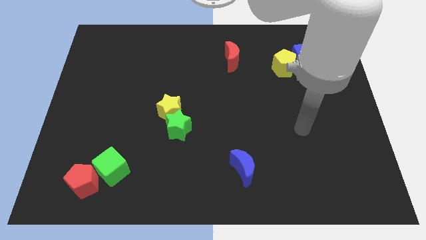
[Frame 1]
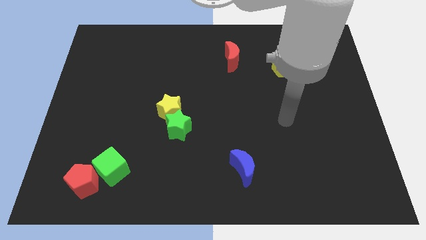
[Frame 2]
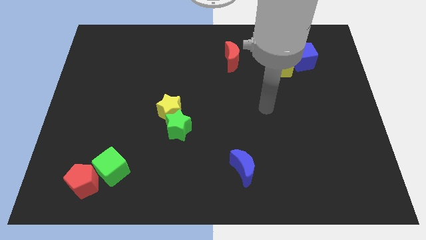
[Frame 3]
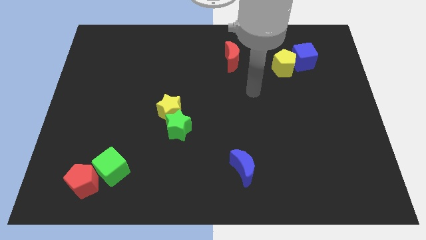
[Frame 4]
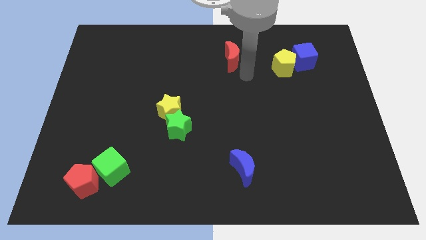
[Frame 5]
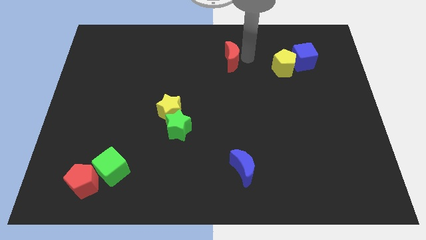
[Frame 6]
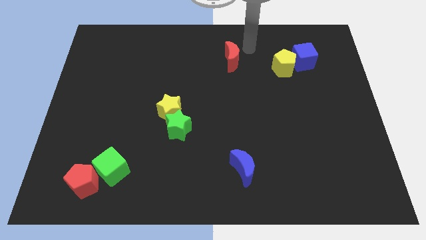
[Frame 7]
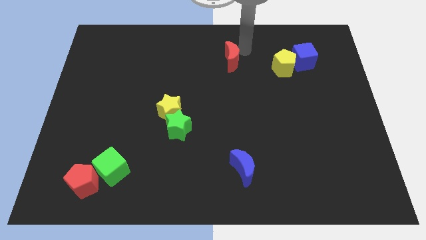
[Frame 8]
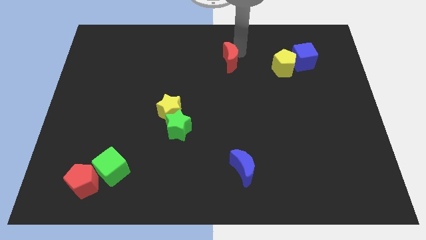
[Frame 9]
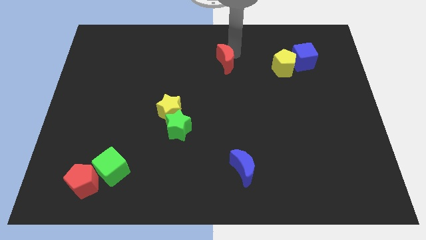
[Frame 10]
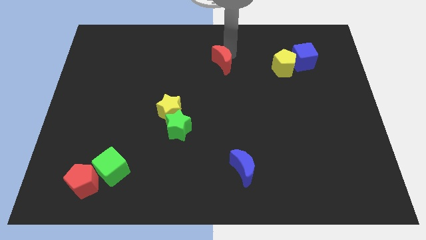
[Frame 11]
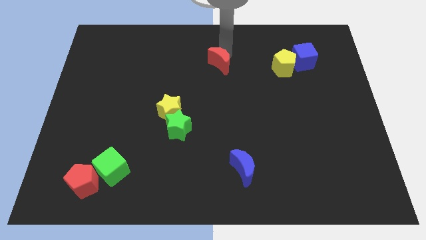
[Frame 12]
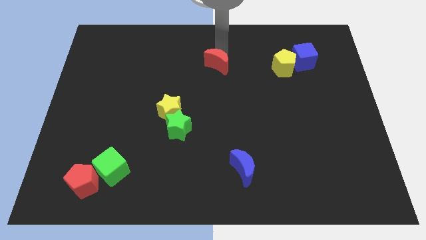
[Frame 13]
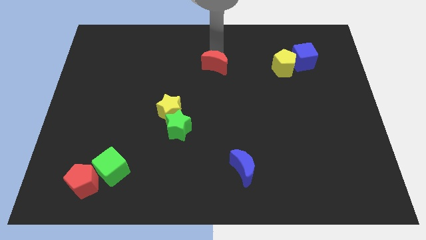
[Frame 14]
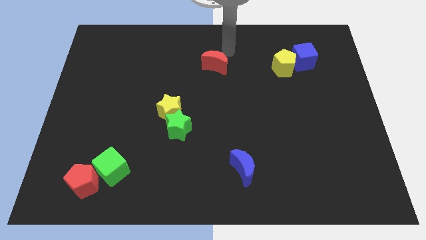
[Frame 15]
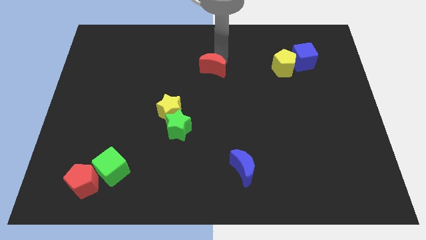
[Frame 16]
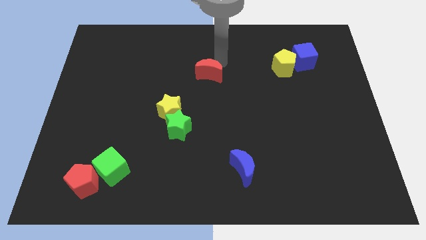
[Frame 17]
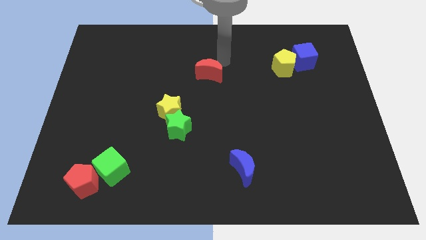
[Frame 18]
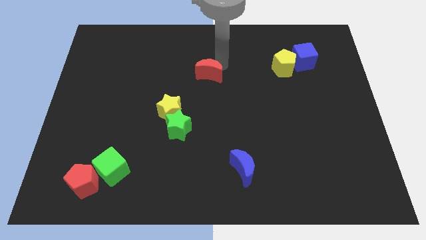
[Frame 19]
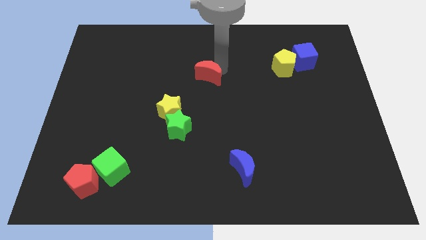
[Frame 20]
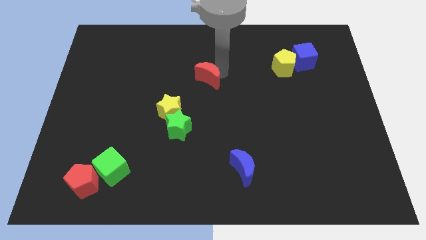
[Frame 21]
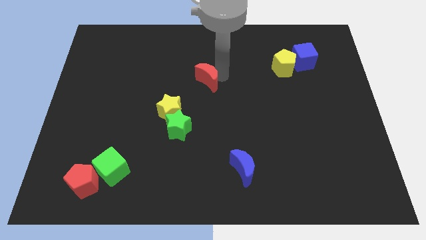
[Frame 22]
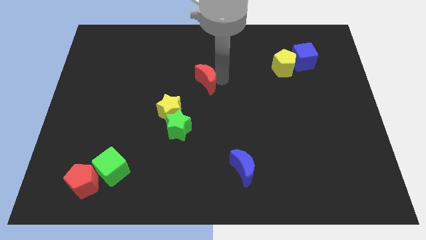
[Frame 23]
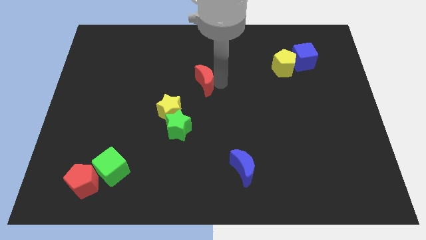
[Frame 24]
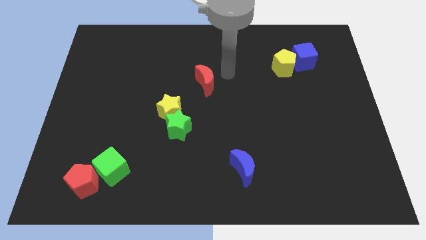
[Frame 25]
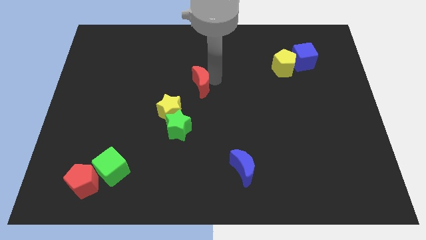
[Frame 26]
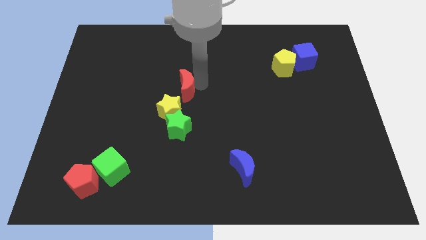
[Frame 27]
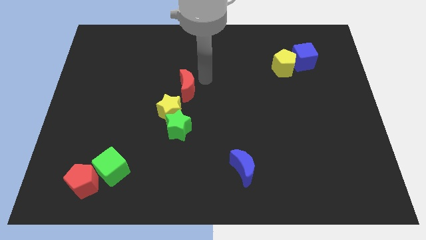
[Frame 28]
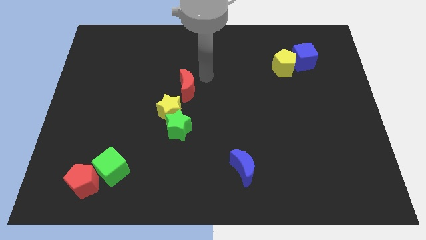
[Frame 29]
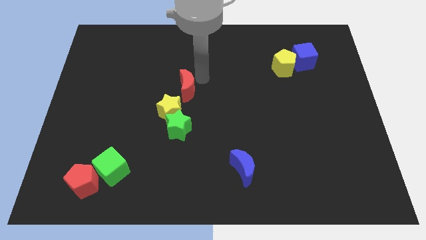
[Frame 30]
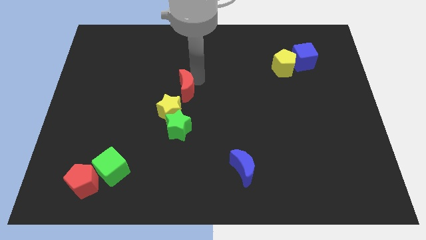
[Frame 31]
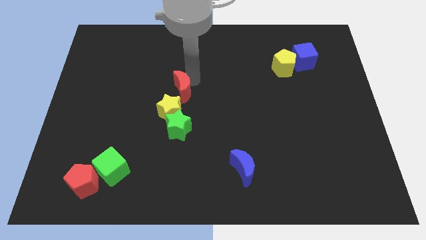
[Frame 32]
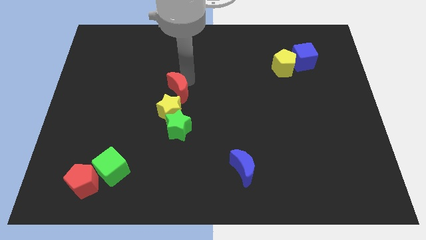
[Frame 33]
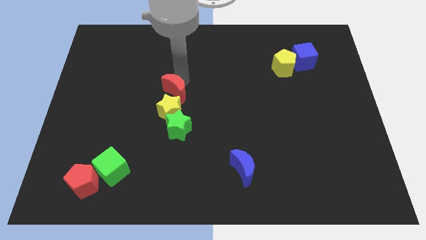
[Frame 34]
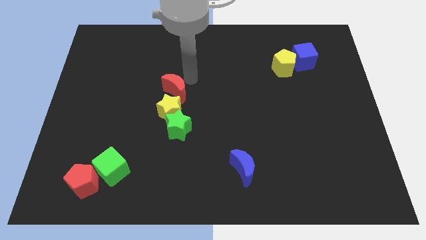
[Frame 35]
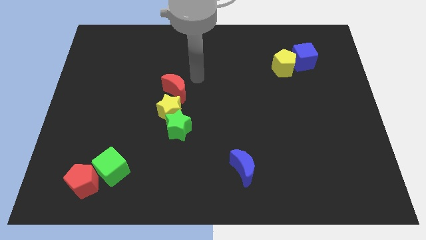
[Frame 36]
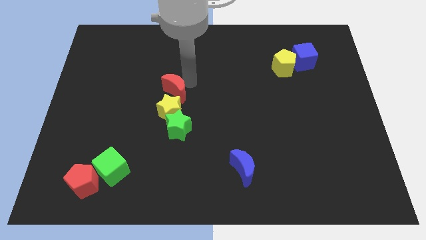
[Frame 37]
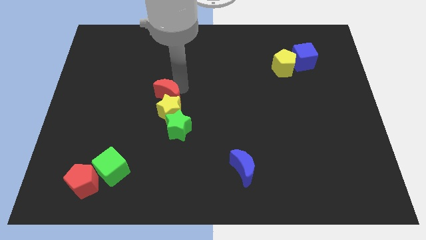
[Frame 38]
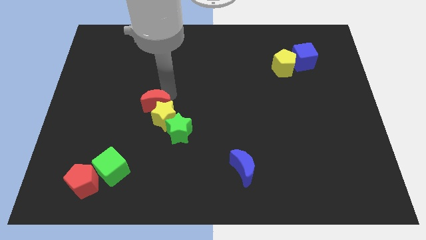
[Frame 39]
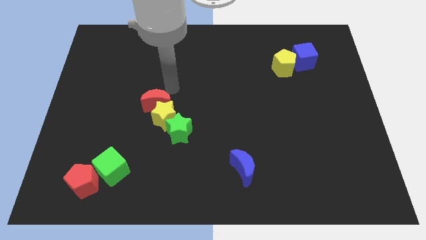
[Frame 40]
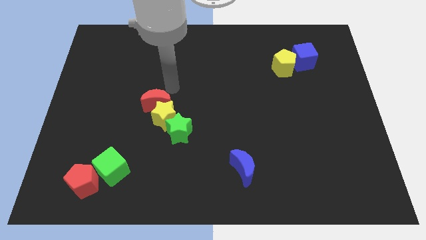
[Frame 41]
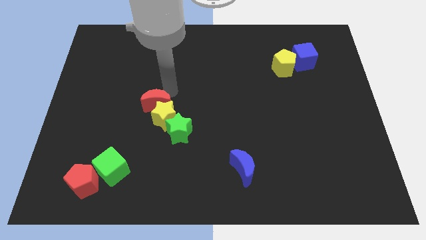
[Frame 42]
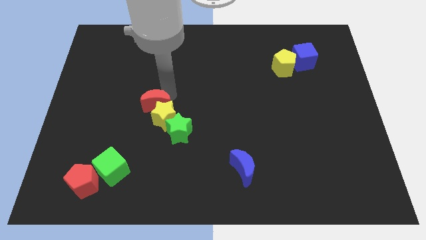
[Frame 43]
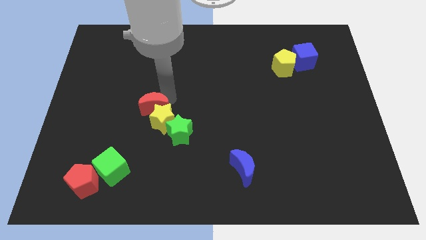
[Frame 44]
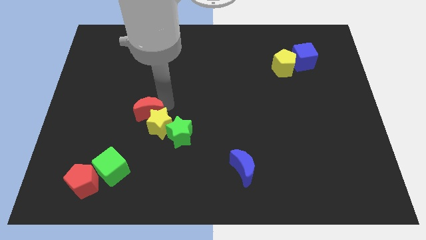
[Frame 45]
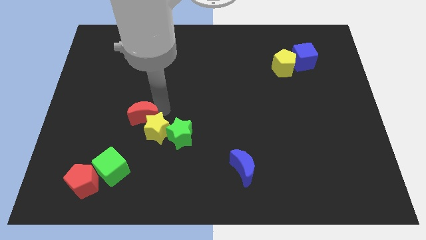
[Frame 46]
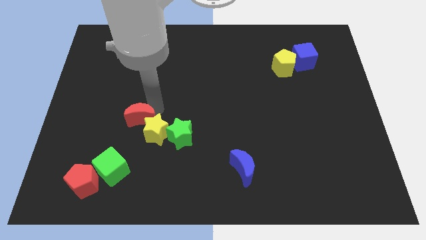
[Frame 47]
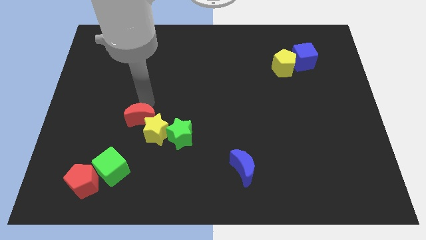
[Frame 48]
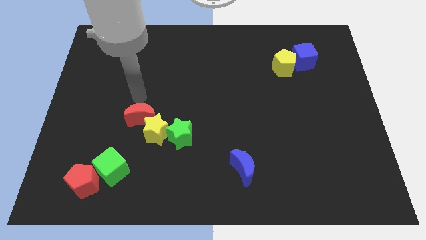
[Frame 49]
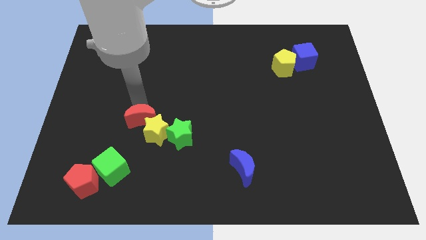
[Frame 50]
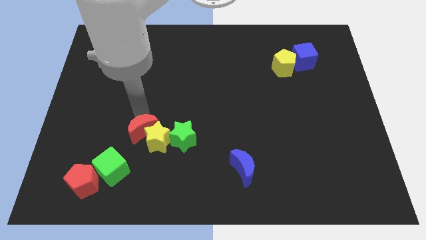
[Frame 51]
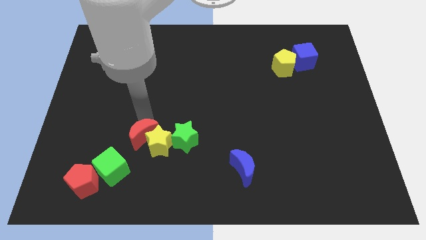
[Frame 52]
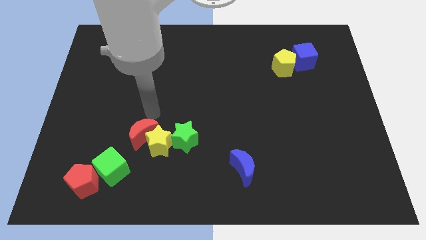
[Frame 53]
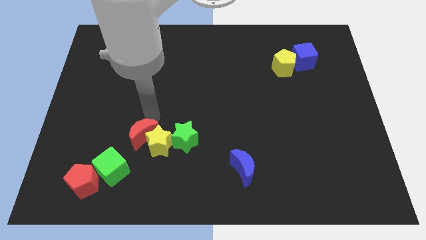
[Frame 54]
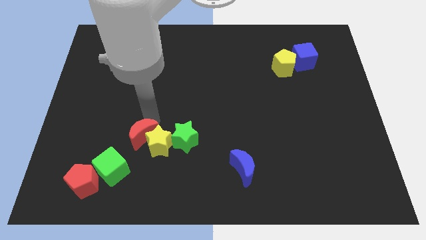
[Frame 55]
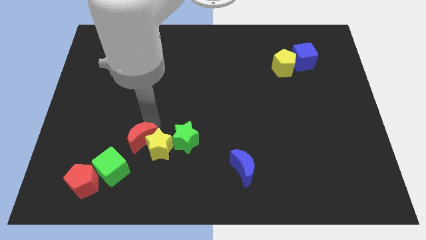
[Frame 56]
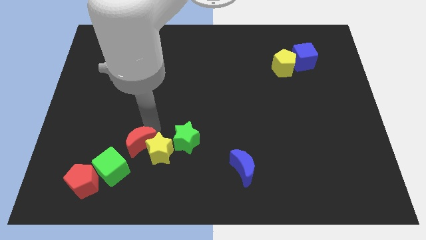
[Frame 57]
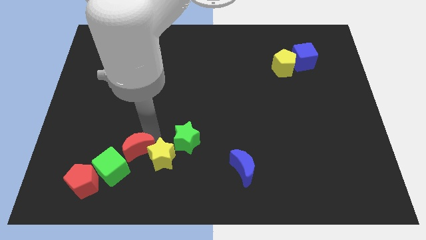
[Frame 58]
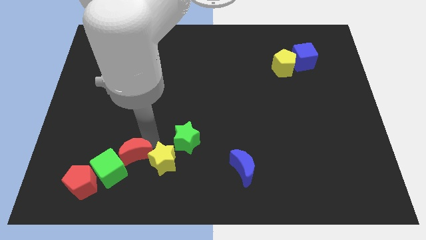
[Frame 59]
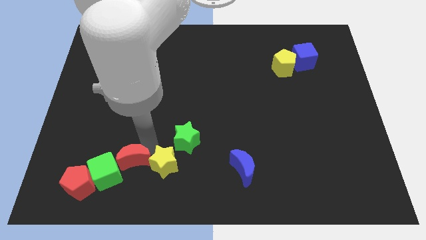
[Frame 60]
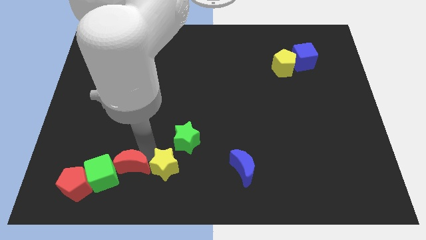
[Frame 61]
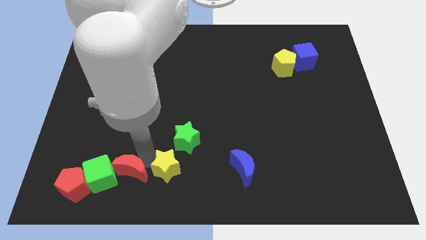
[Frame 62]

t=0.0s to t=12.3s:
put the red moon next to the green cube

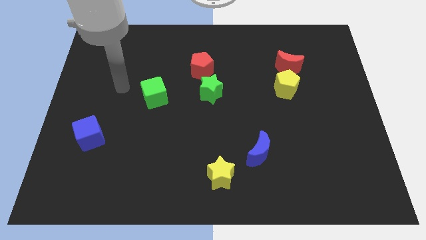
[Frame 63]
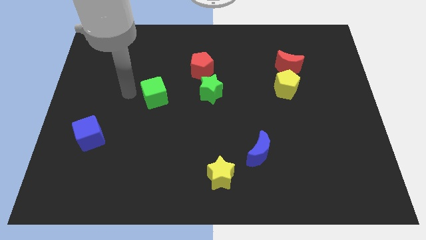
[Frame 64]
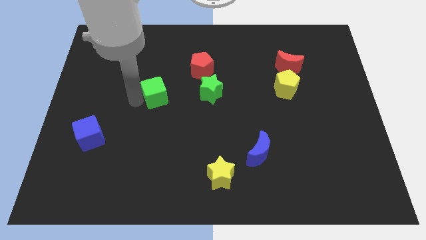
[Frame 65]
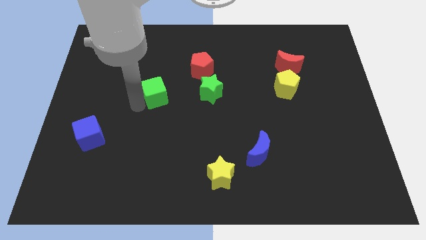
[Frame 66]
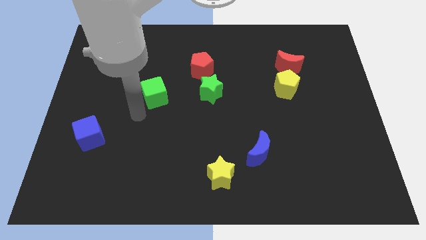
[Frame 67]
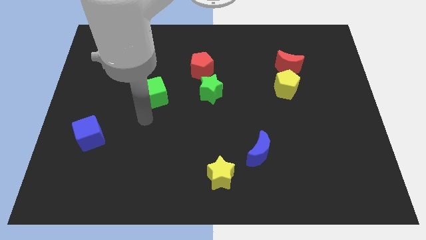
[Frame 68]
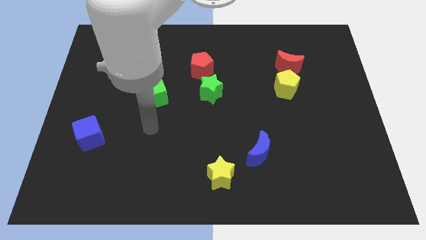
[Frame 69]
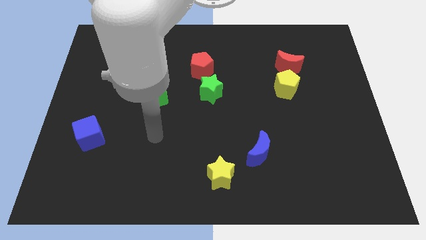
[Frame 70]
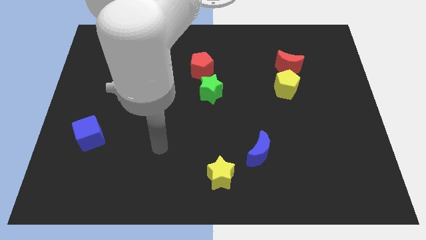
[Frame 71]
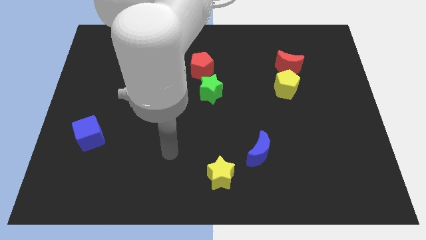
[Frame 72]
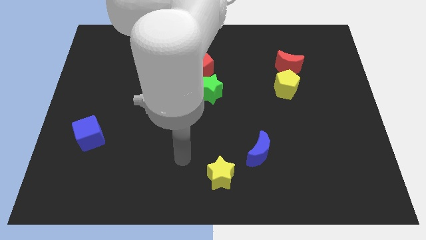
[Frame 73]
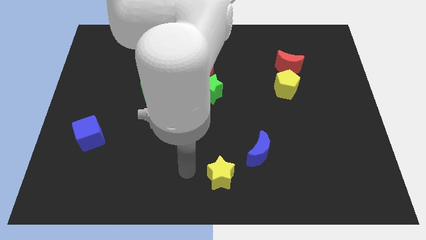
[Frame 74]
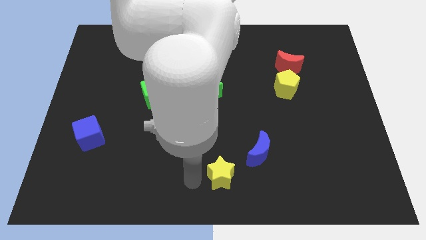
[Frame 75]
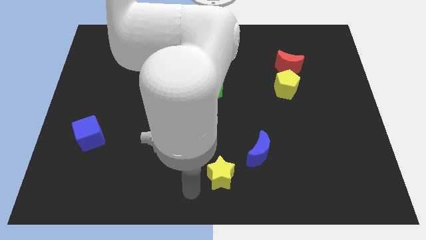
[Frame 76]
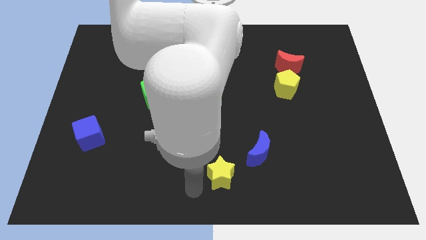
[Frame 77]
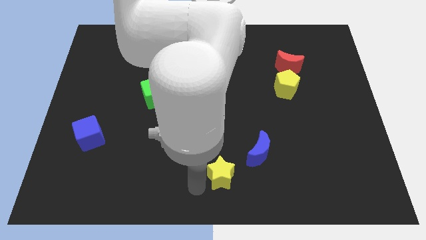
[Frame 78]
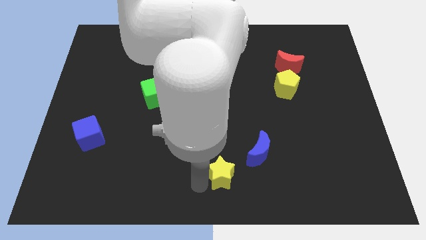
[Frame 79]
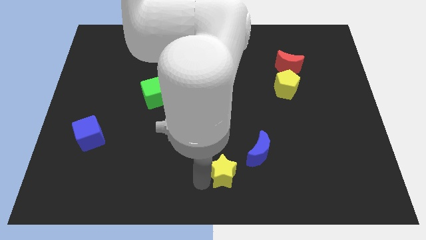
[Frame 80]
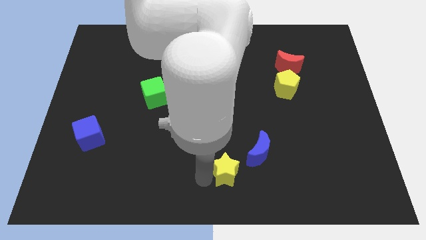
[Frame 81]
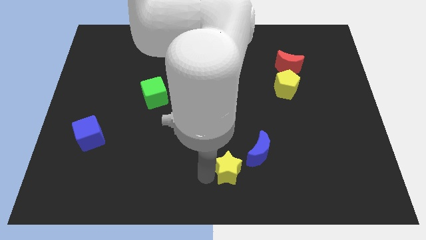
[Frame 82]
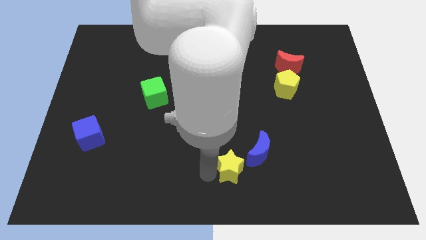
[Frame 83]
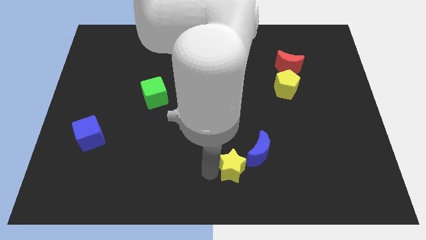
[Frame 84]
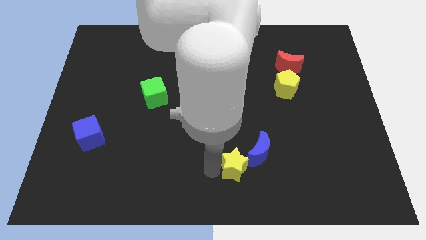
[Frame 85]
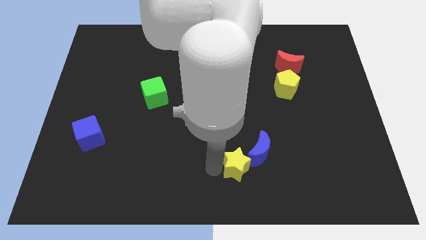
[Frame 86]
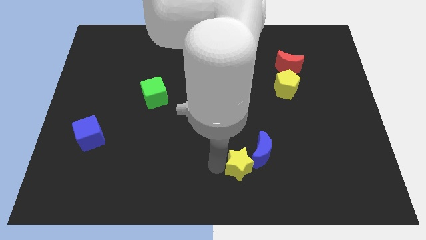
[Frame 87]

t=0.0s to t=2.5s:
move the yellow star next to the blue moon
